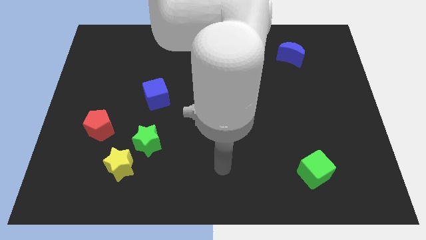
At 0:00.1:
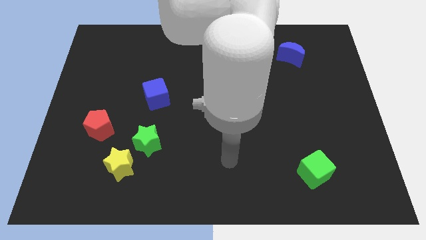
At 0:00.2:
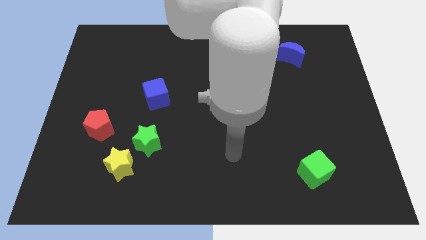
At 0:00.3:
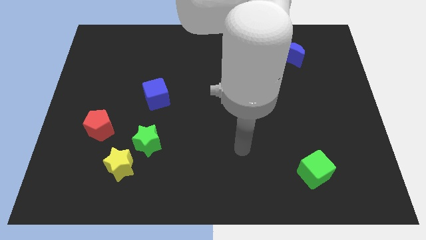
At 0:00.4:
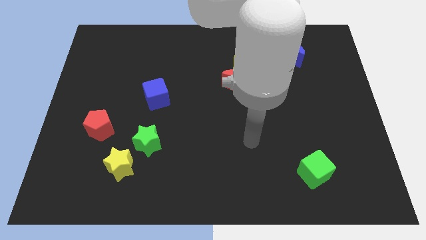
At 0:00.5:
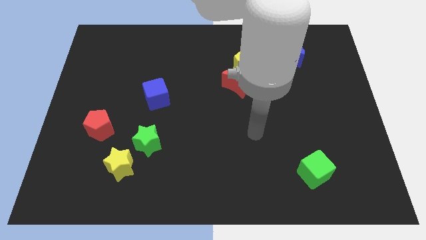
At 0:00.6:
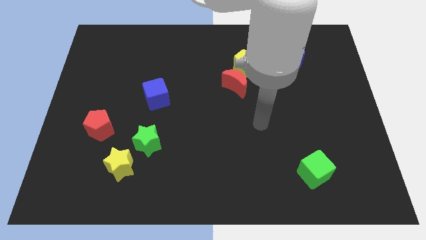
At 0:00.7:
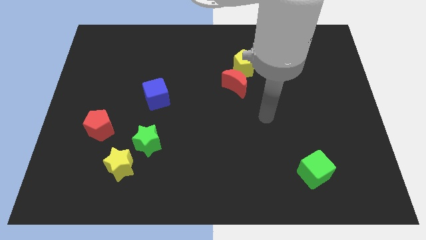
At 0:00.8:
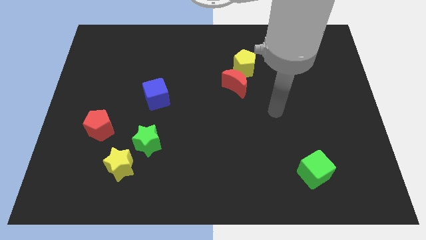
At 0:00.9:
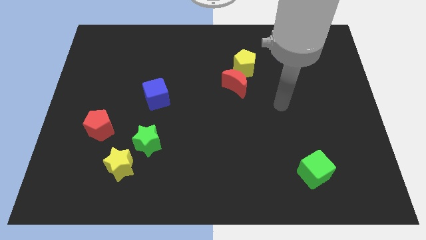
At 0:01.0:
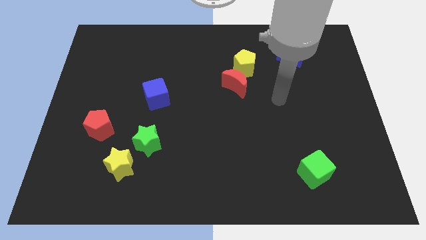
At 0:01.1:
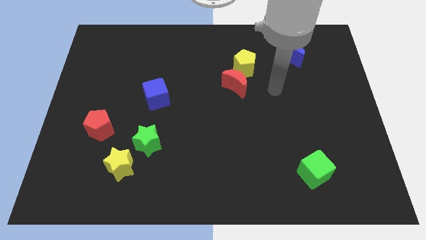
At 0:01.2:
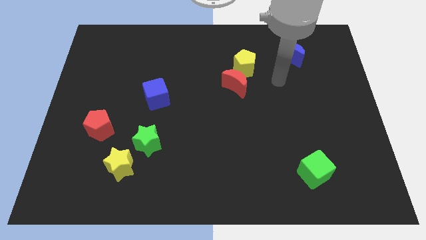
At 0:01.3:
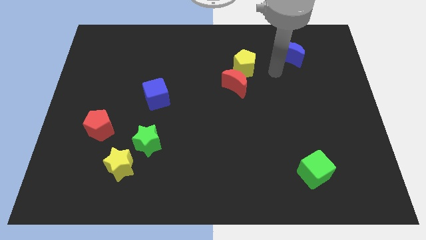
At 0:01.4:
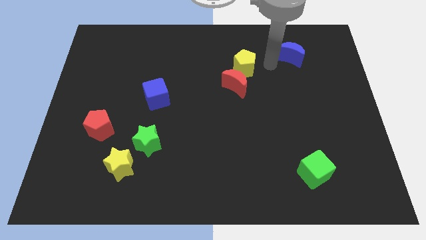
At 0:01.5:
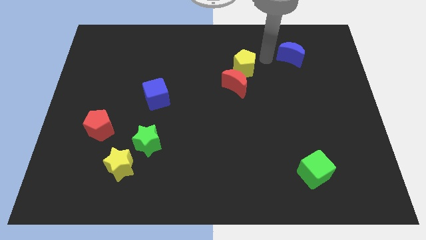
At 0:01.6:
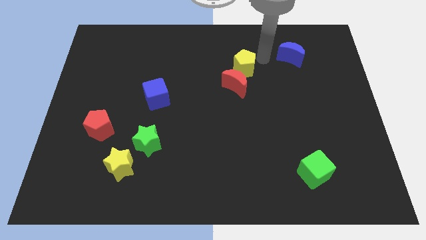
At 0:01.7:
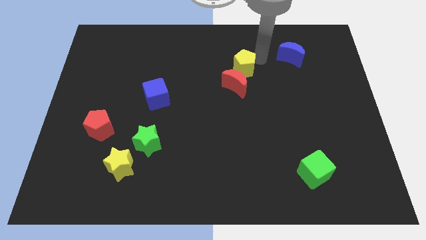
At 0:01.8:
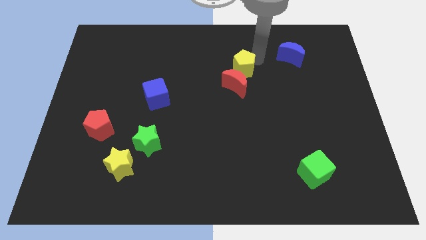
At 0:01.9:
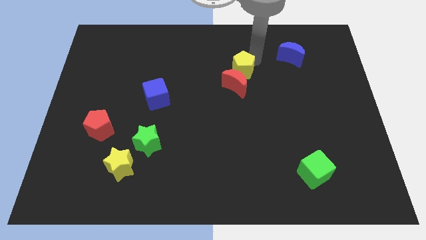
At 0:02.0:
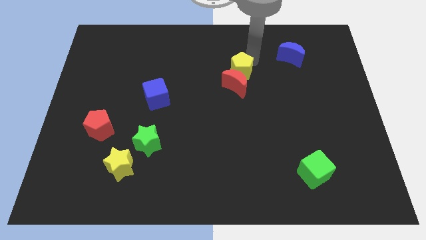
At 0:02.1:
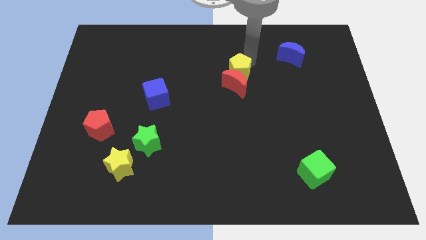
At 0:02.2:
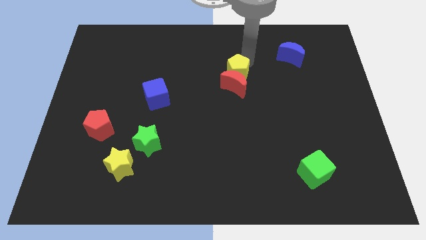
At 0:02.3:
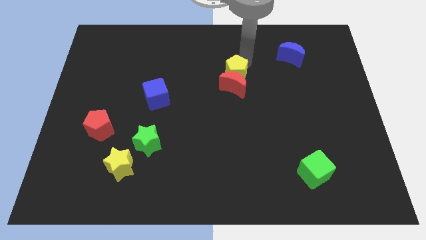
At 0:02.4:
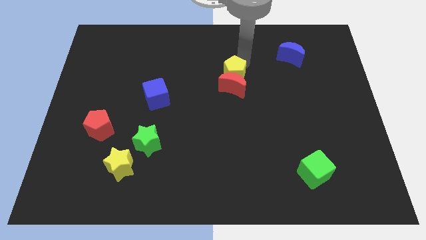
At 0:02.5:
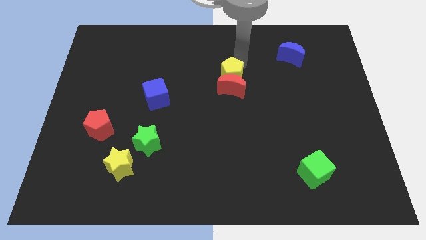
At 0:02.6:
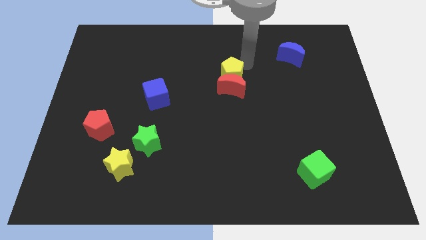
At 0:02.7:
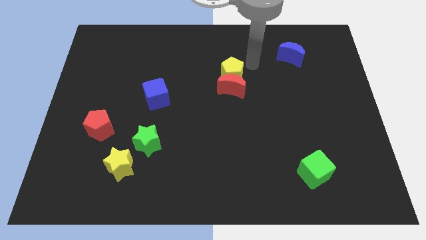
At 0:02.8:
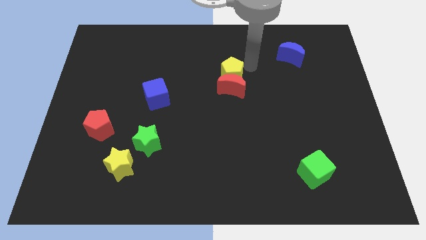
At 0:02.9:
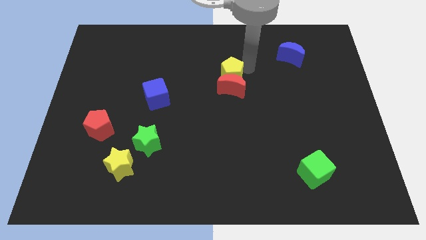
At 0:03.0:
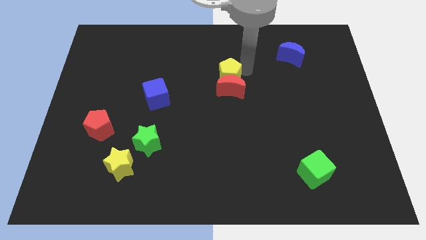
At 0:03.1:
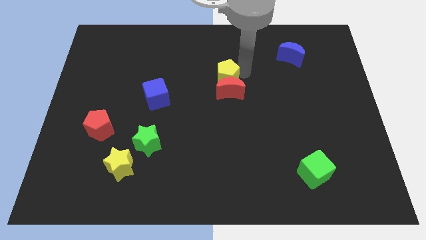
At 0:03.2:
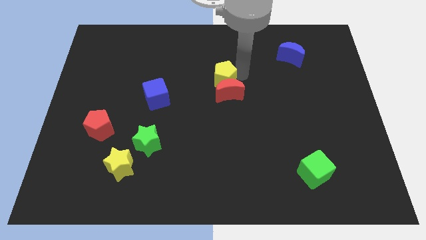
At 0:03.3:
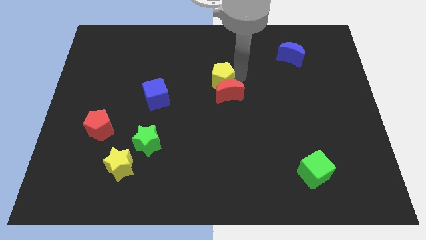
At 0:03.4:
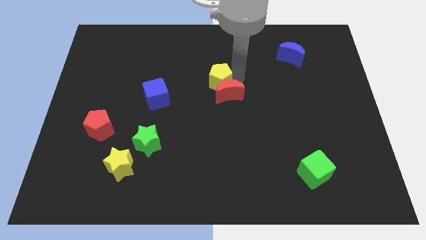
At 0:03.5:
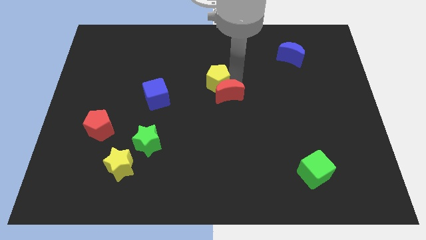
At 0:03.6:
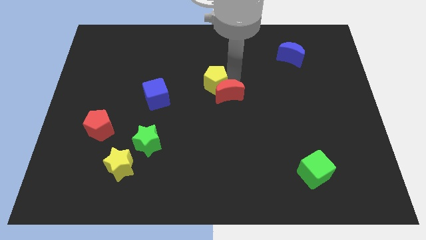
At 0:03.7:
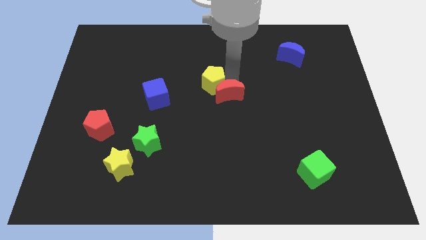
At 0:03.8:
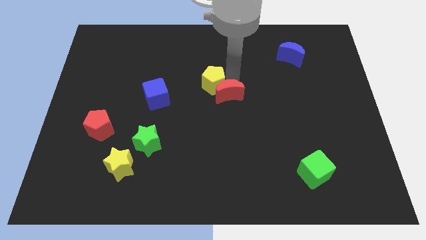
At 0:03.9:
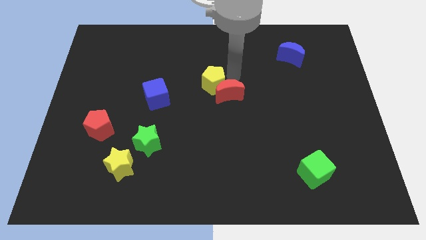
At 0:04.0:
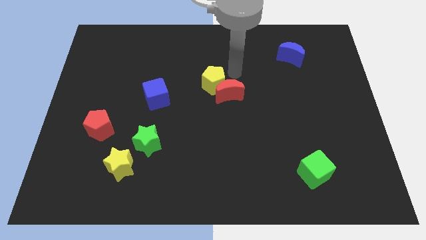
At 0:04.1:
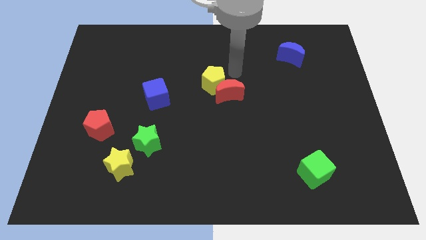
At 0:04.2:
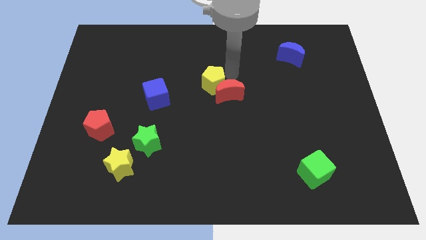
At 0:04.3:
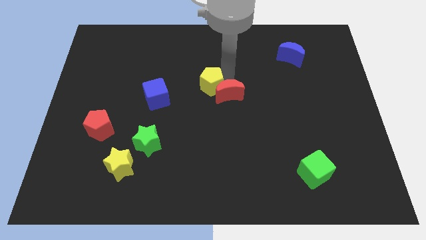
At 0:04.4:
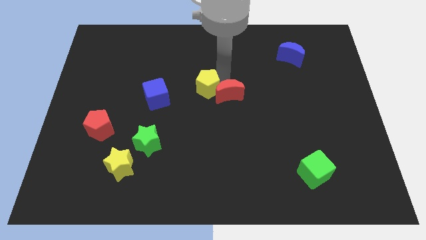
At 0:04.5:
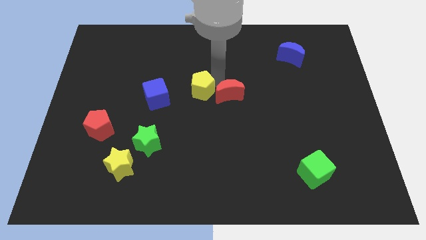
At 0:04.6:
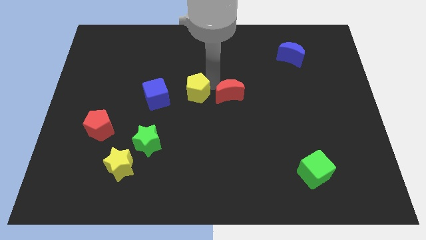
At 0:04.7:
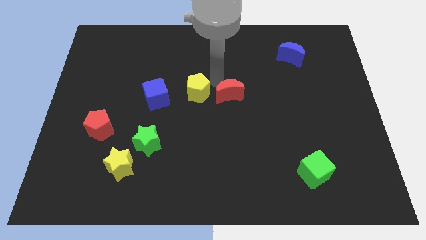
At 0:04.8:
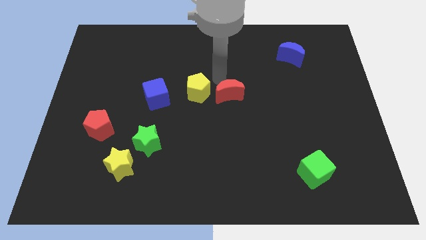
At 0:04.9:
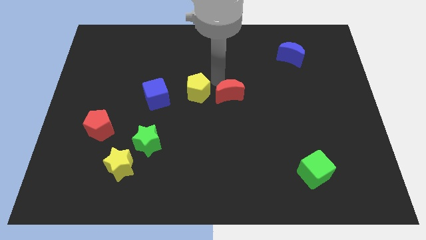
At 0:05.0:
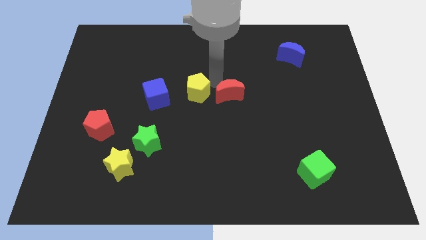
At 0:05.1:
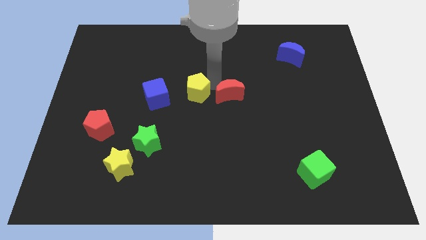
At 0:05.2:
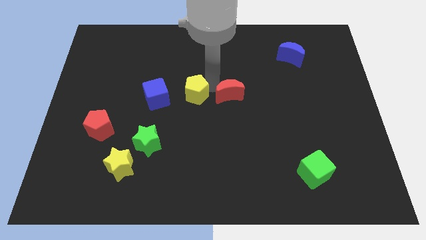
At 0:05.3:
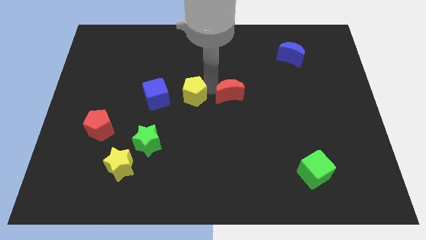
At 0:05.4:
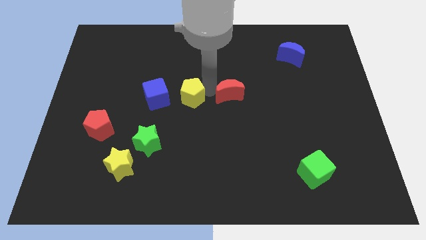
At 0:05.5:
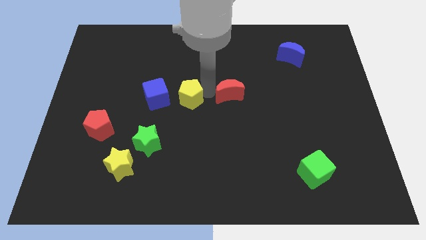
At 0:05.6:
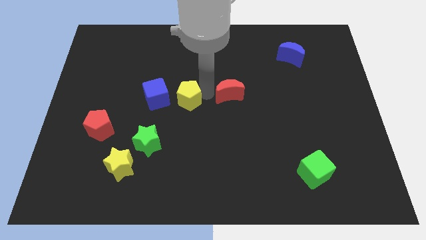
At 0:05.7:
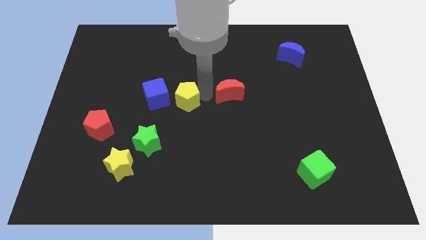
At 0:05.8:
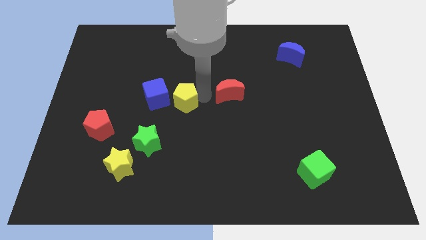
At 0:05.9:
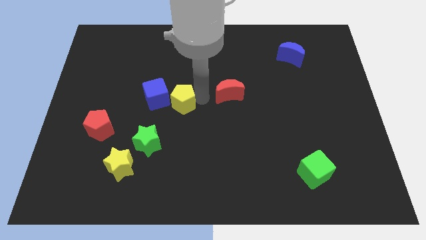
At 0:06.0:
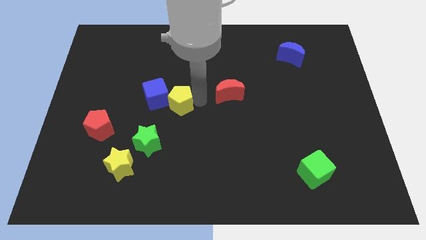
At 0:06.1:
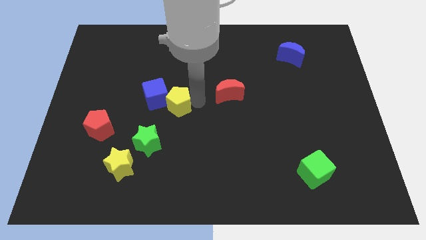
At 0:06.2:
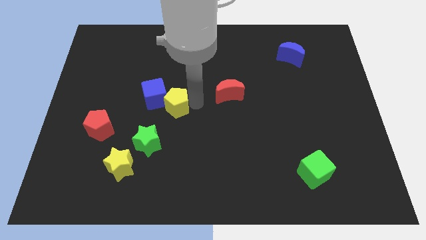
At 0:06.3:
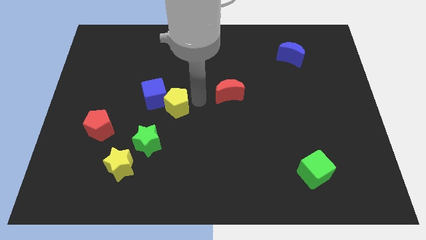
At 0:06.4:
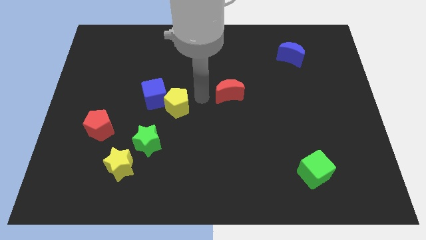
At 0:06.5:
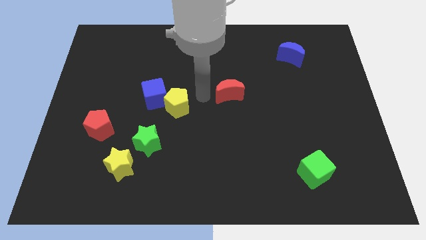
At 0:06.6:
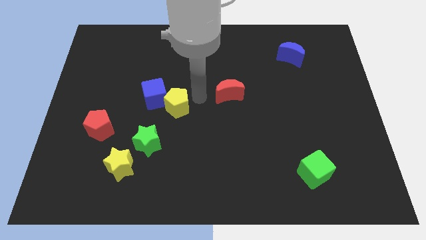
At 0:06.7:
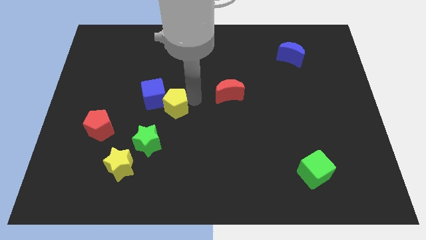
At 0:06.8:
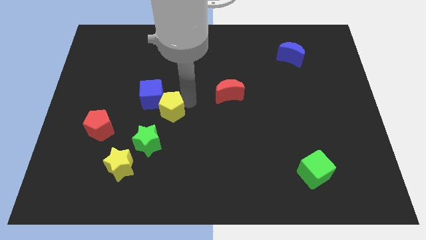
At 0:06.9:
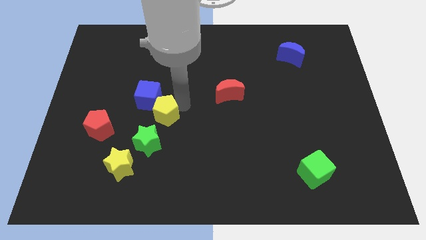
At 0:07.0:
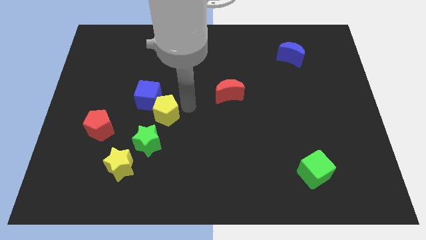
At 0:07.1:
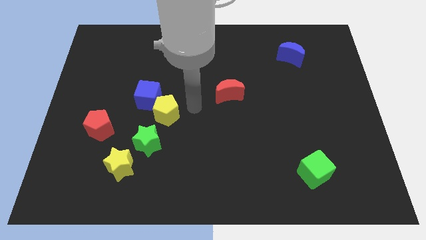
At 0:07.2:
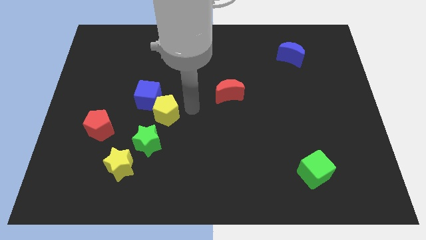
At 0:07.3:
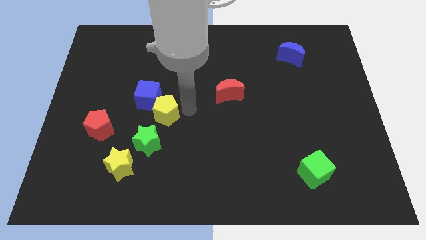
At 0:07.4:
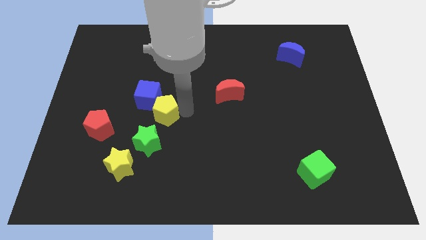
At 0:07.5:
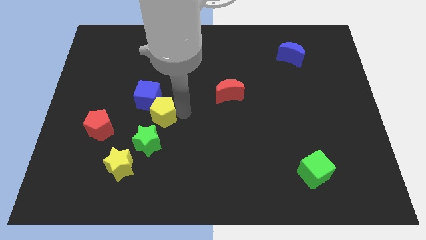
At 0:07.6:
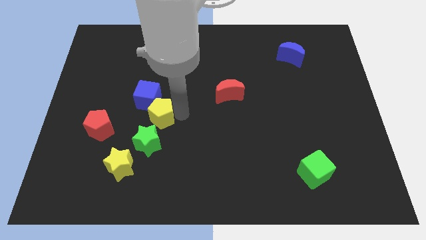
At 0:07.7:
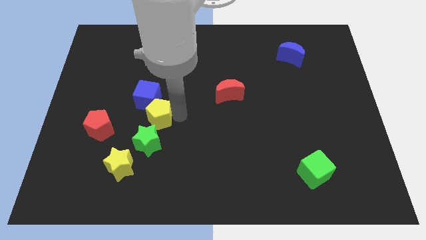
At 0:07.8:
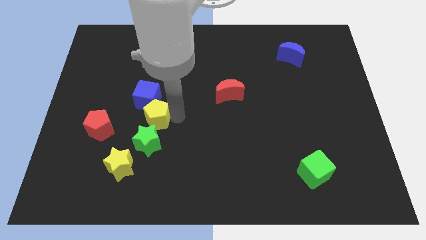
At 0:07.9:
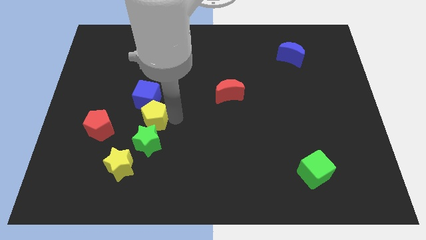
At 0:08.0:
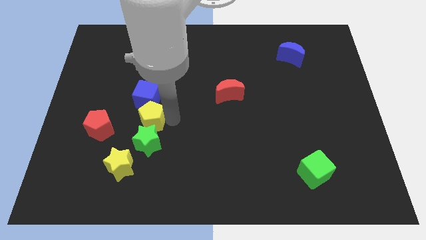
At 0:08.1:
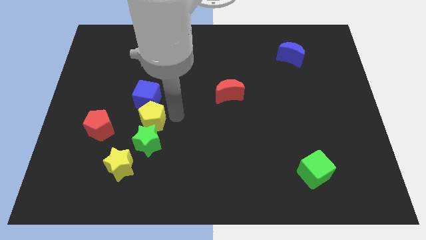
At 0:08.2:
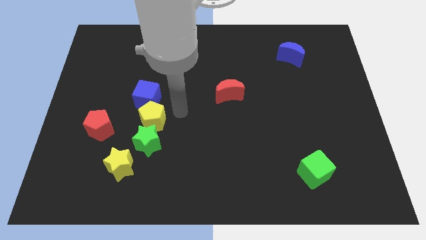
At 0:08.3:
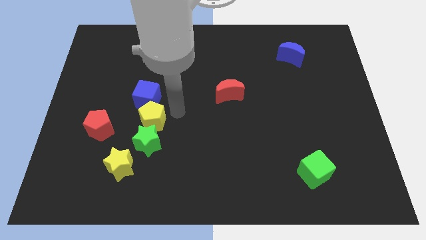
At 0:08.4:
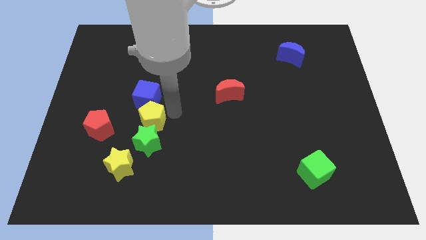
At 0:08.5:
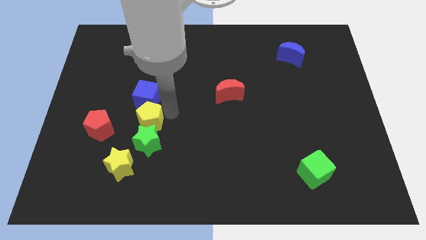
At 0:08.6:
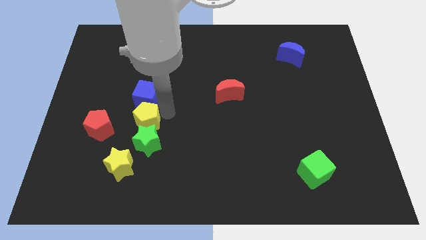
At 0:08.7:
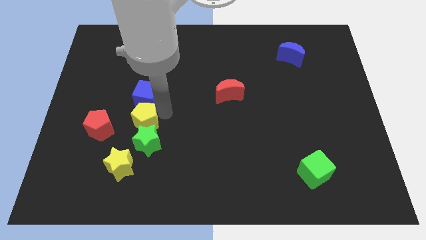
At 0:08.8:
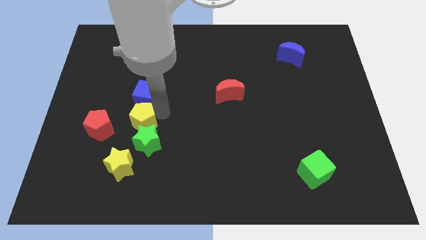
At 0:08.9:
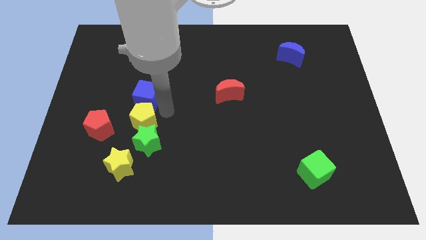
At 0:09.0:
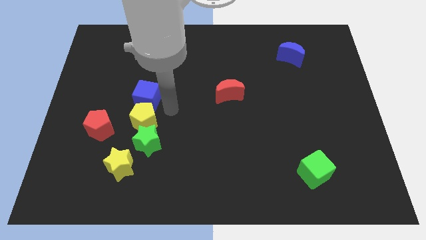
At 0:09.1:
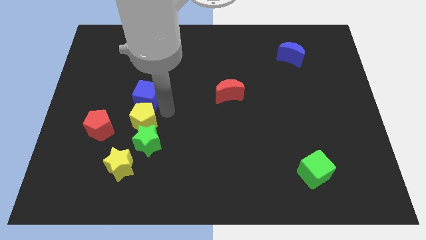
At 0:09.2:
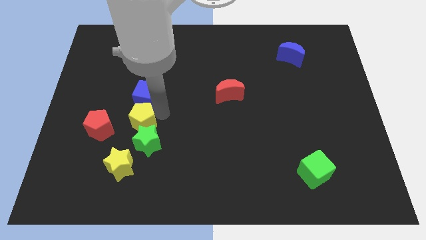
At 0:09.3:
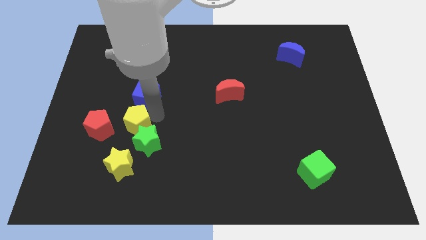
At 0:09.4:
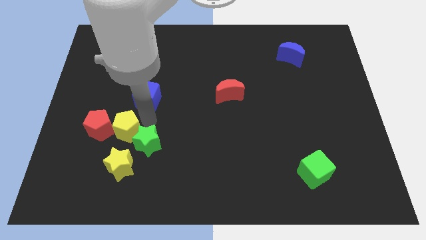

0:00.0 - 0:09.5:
put the yellow pentagon to the red pentagon
